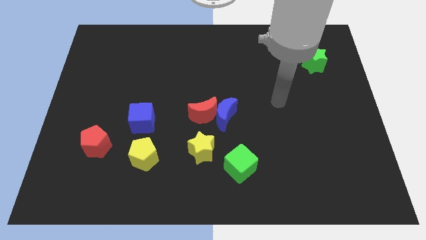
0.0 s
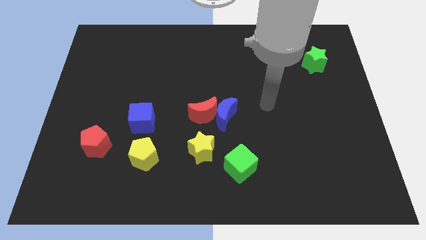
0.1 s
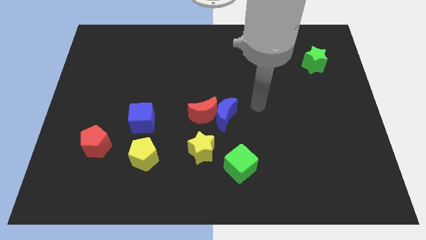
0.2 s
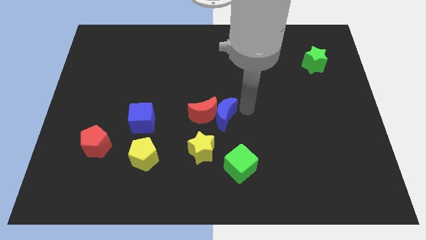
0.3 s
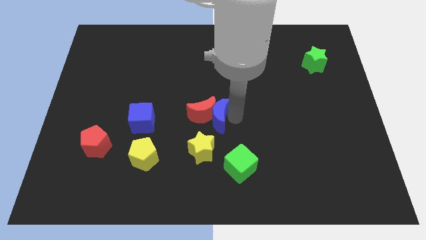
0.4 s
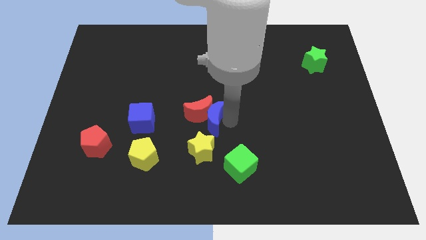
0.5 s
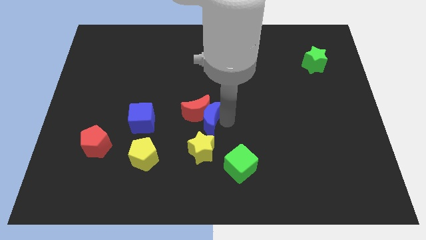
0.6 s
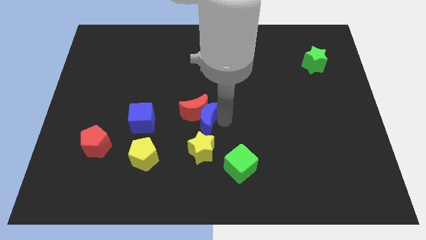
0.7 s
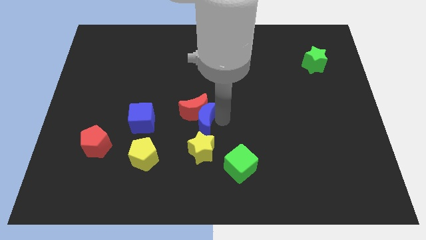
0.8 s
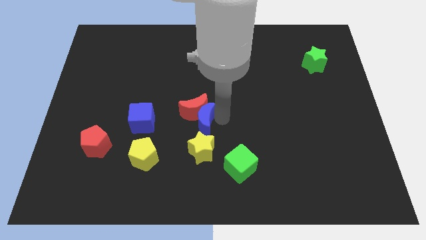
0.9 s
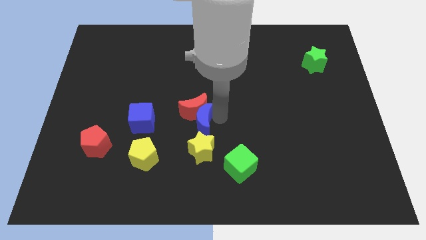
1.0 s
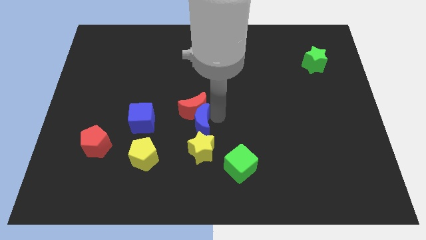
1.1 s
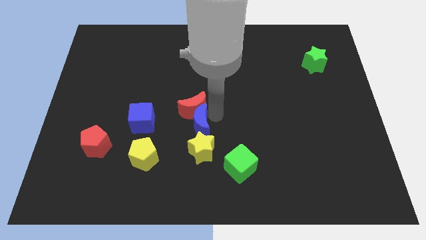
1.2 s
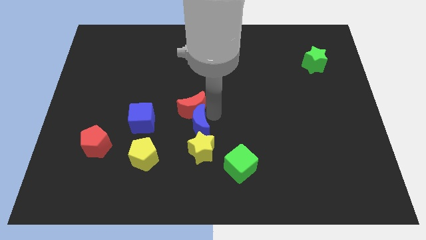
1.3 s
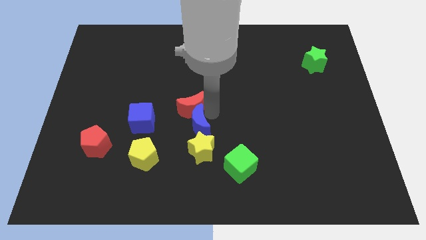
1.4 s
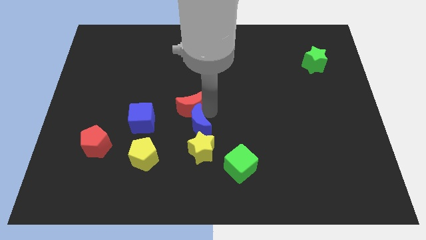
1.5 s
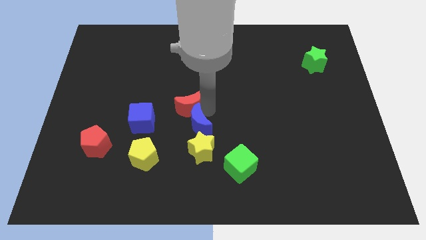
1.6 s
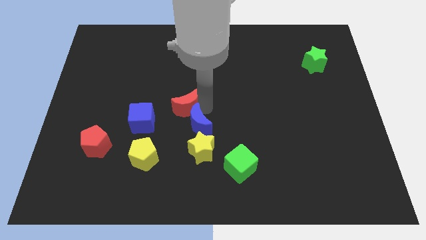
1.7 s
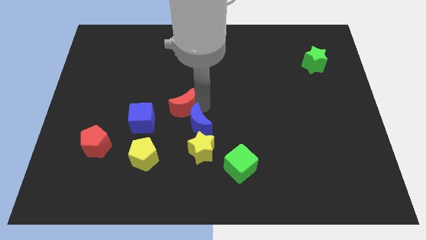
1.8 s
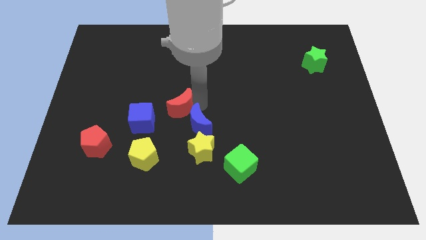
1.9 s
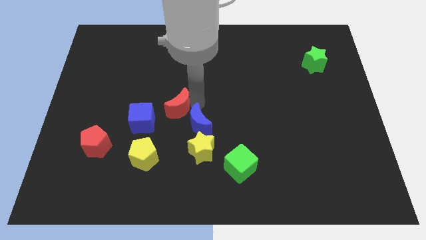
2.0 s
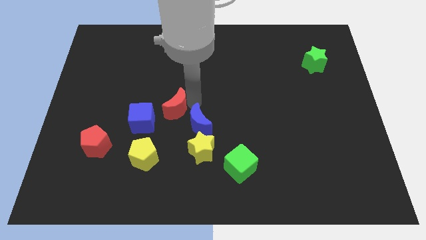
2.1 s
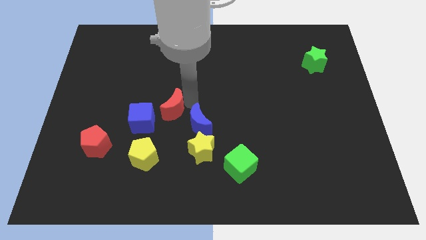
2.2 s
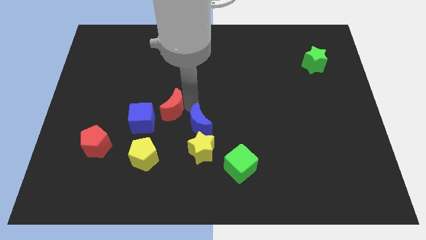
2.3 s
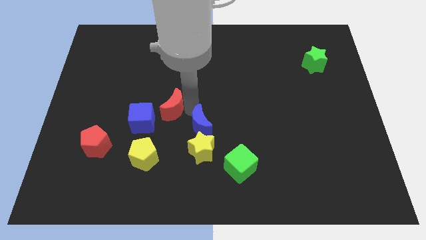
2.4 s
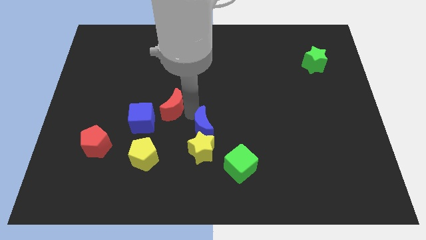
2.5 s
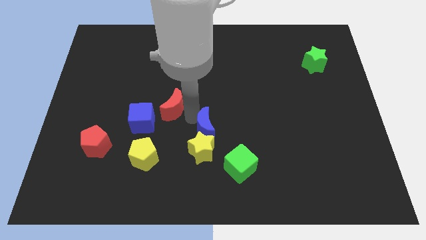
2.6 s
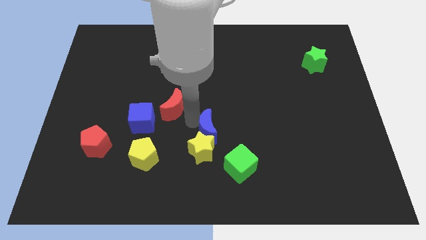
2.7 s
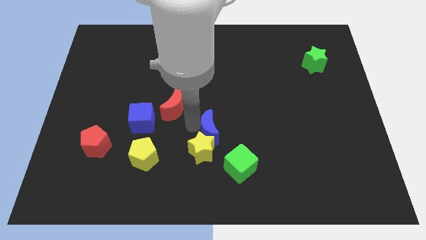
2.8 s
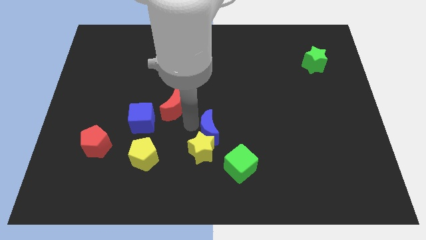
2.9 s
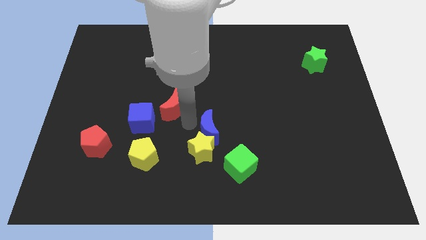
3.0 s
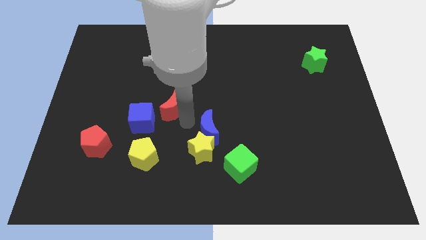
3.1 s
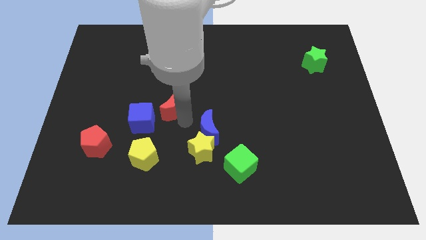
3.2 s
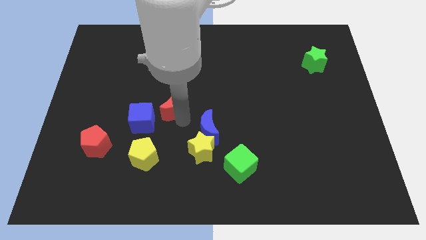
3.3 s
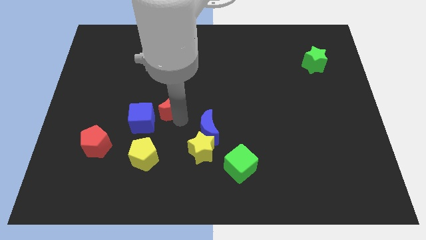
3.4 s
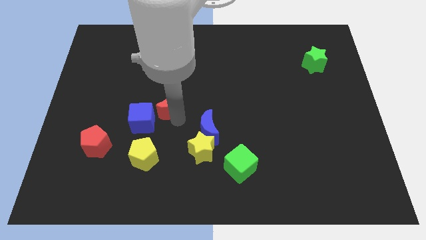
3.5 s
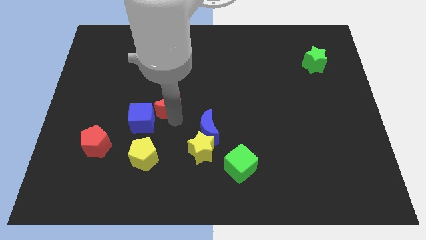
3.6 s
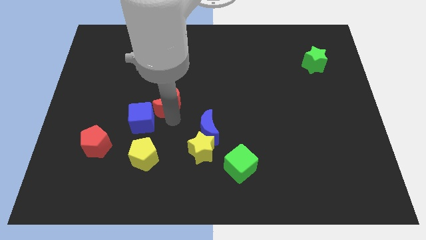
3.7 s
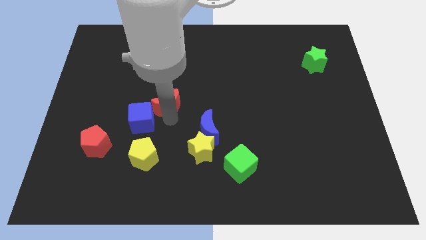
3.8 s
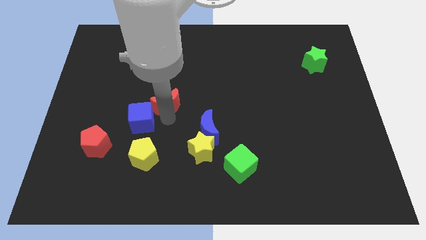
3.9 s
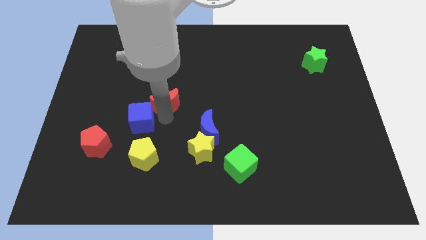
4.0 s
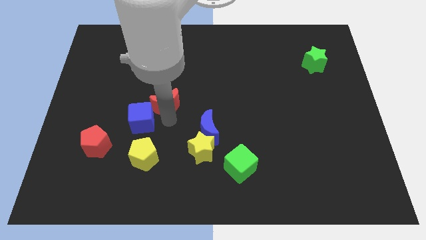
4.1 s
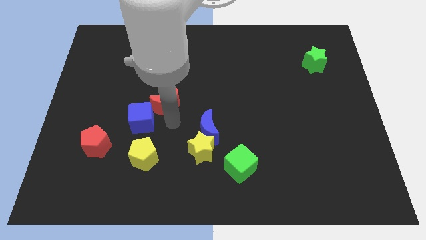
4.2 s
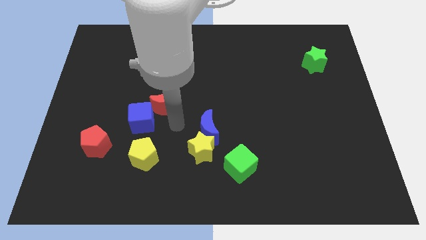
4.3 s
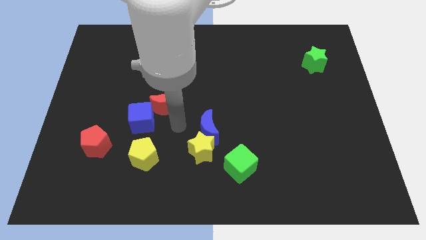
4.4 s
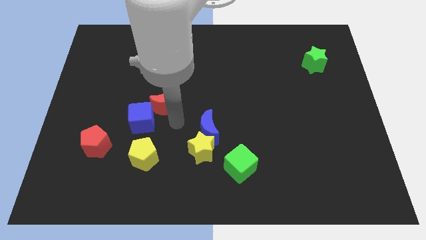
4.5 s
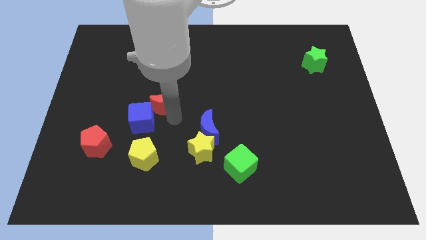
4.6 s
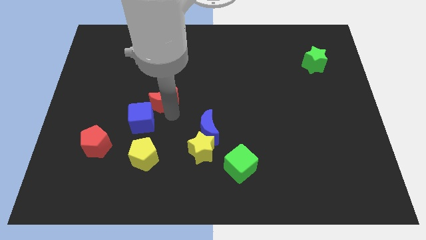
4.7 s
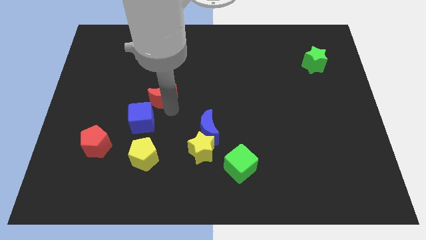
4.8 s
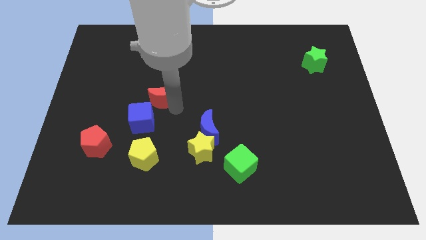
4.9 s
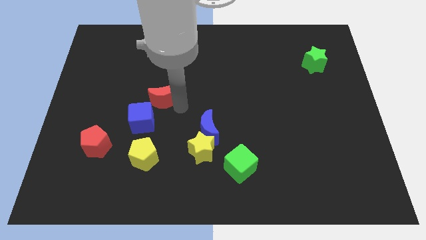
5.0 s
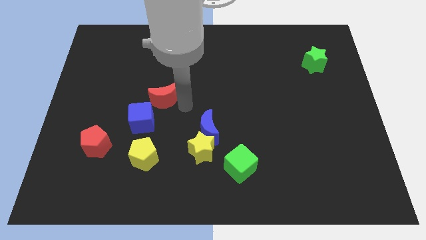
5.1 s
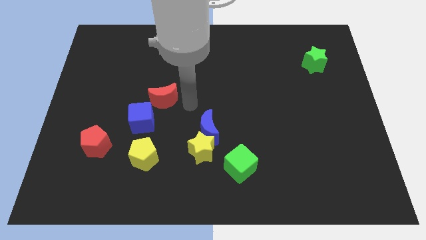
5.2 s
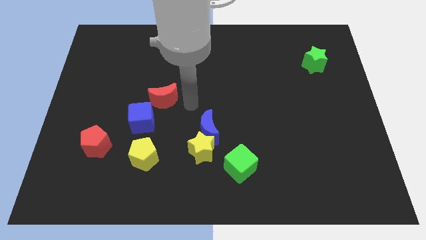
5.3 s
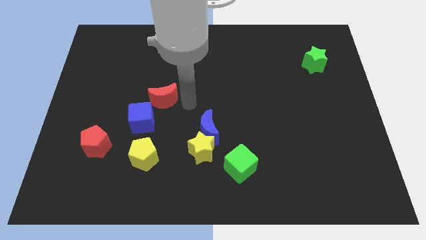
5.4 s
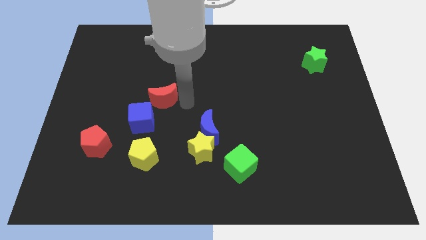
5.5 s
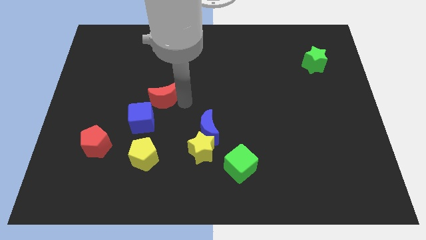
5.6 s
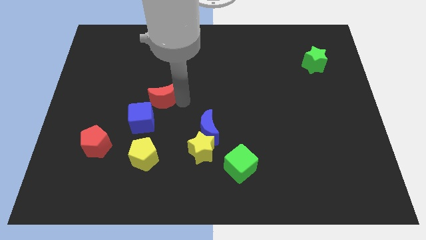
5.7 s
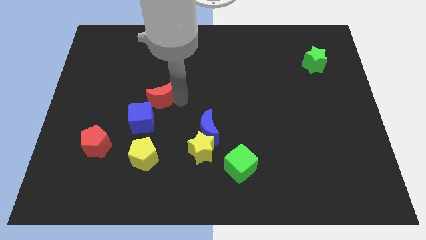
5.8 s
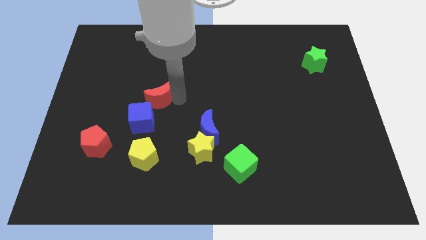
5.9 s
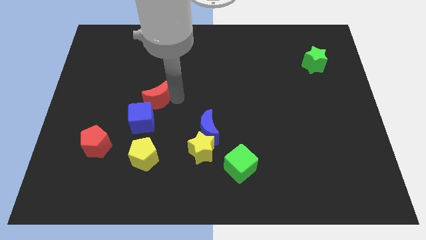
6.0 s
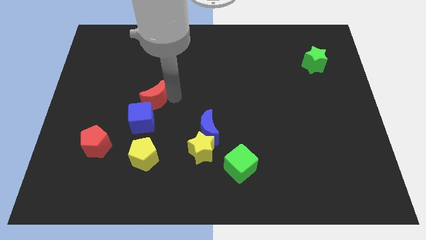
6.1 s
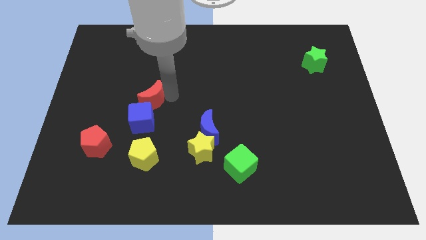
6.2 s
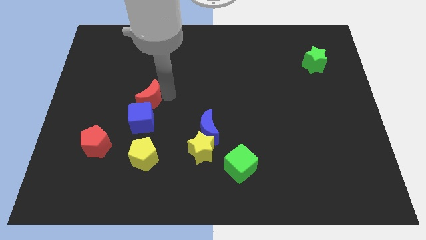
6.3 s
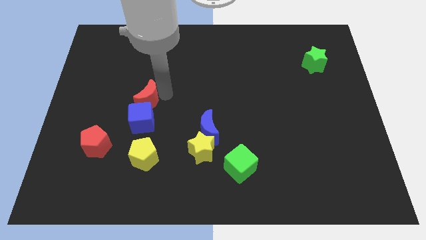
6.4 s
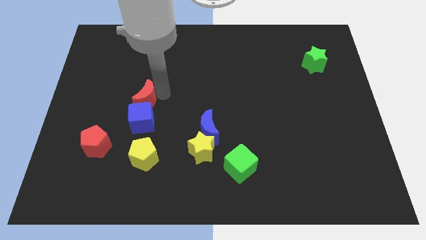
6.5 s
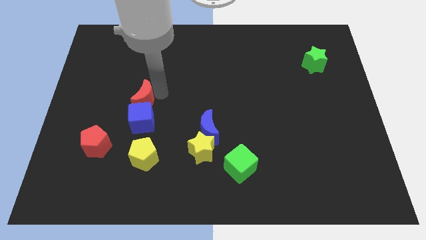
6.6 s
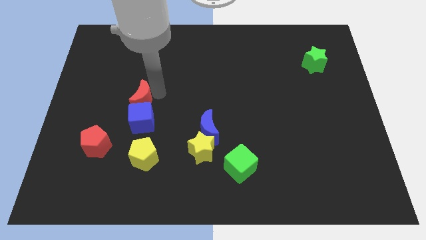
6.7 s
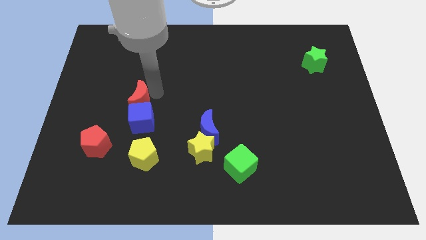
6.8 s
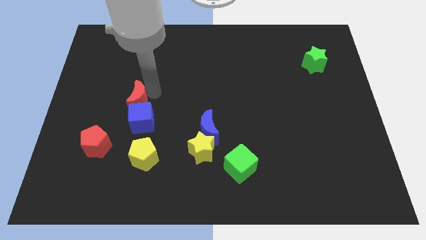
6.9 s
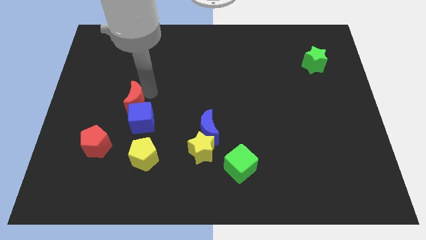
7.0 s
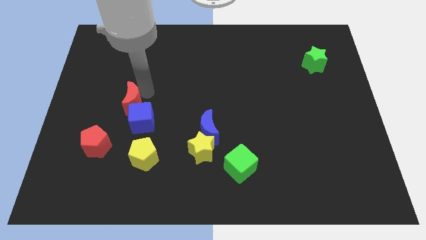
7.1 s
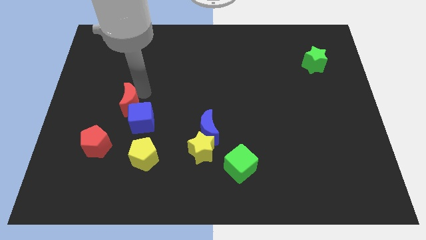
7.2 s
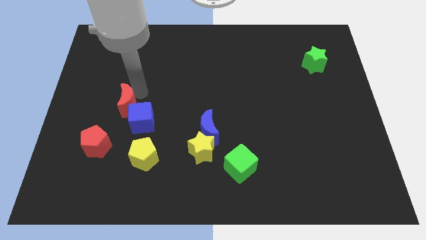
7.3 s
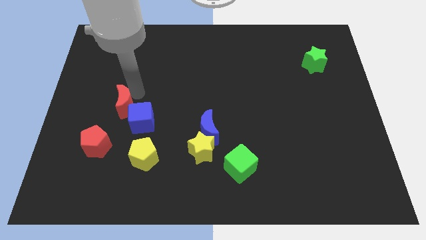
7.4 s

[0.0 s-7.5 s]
push the red moon to the top of the red pentagon

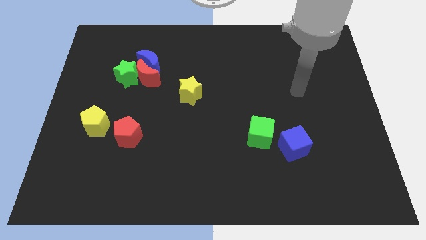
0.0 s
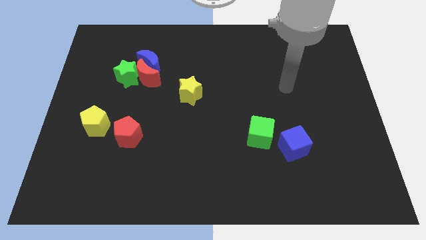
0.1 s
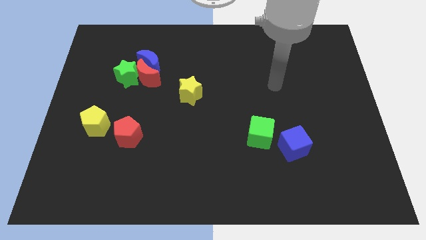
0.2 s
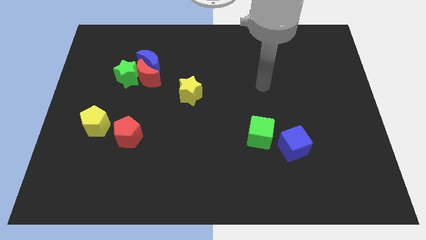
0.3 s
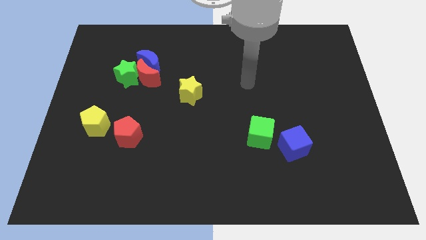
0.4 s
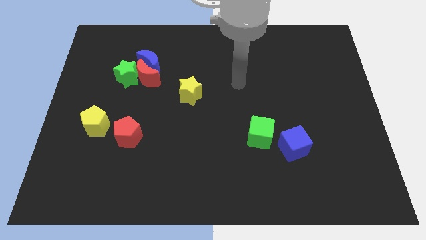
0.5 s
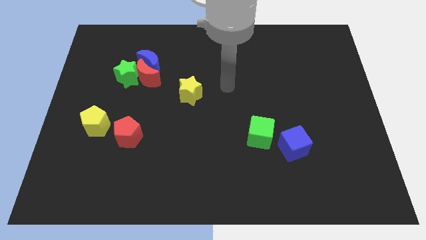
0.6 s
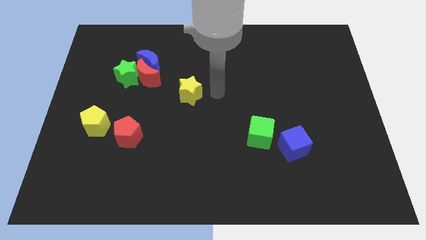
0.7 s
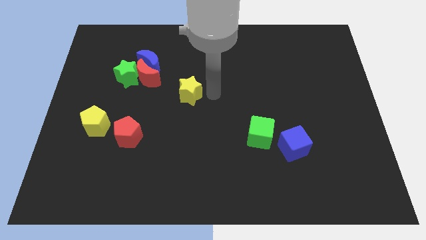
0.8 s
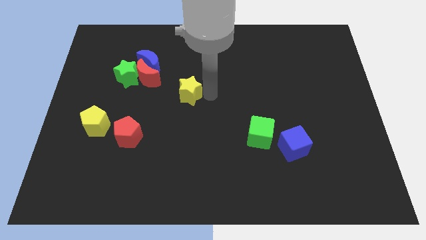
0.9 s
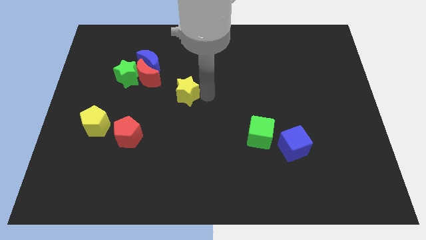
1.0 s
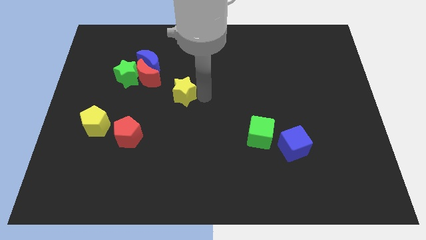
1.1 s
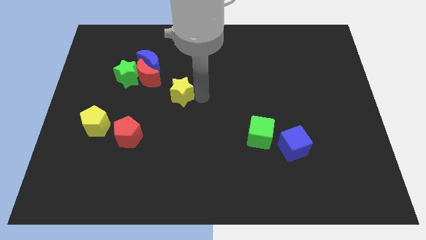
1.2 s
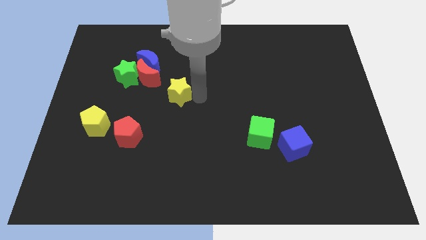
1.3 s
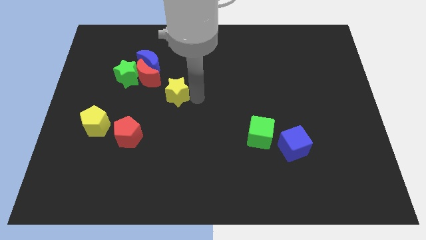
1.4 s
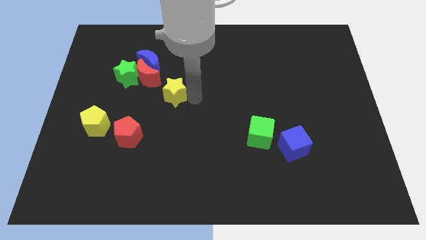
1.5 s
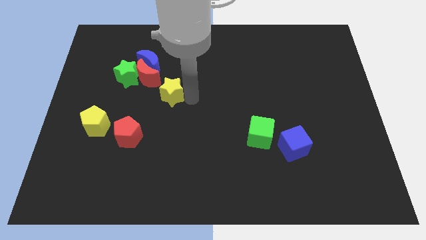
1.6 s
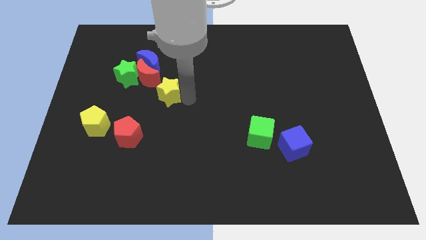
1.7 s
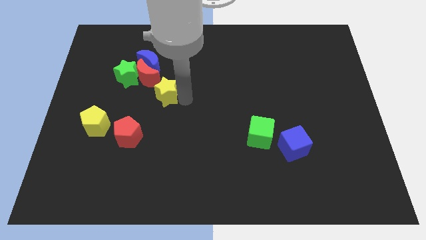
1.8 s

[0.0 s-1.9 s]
put the yellow star to the bottom of the blue moon
